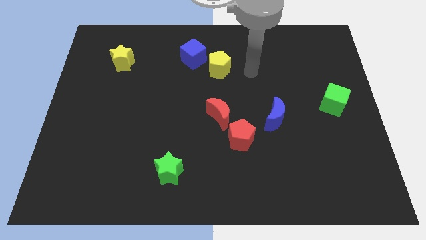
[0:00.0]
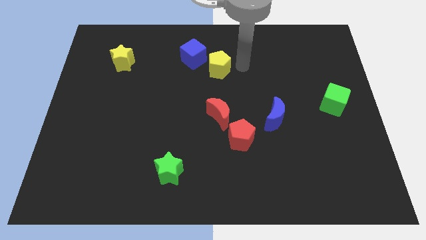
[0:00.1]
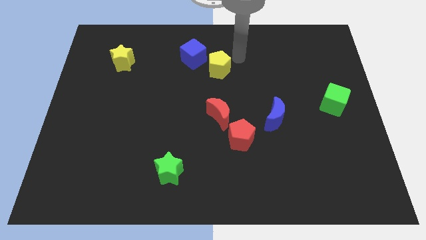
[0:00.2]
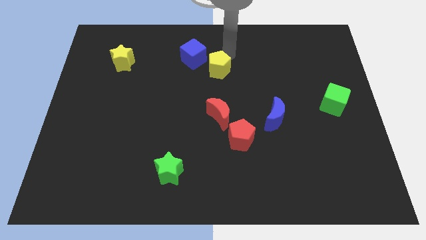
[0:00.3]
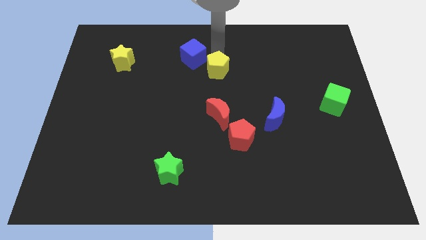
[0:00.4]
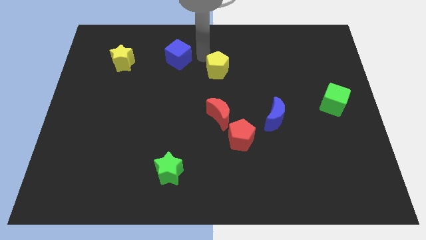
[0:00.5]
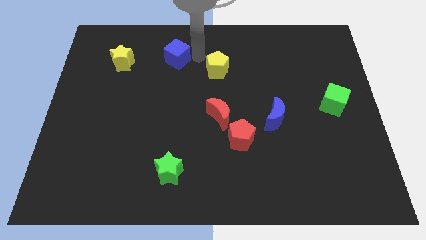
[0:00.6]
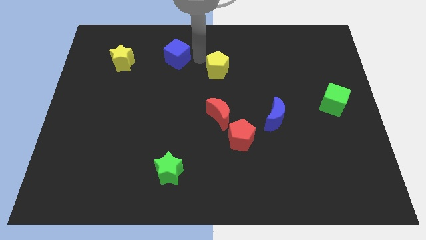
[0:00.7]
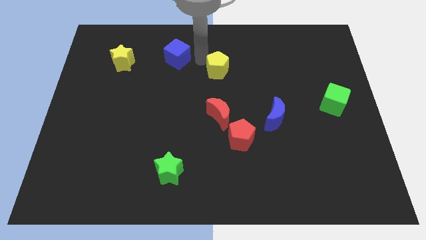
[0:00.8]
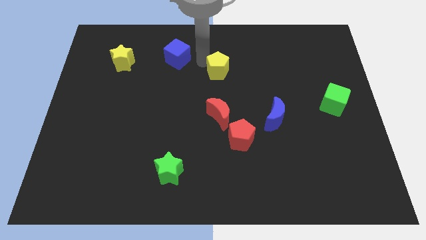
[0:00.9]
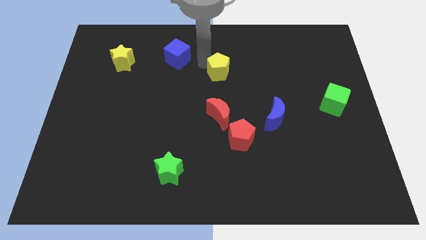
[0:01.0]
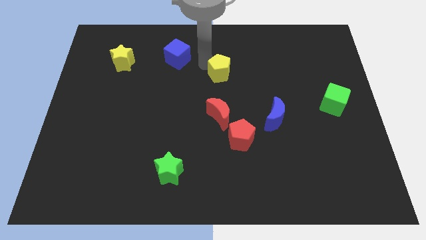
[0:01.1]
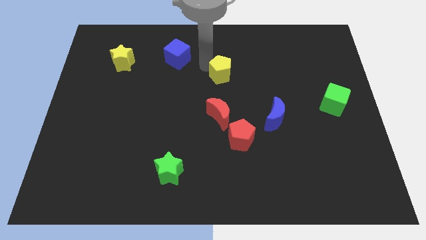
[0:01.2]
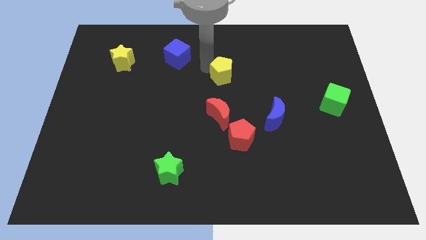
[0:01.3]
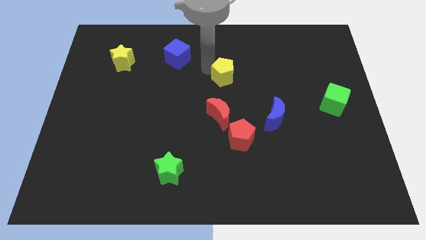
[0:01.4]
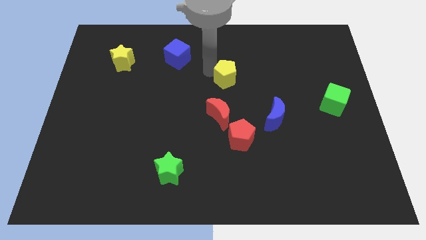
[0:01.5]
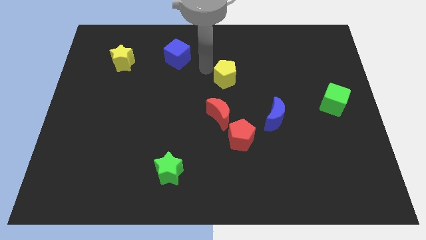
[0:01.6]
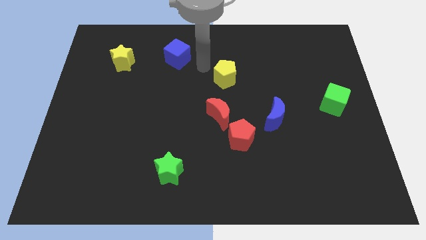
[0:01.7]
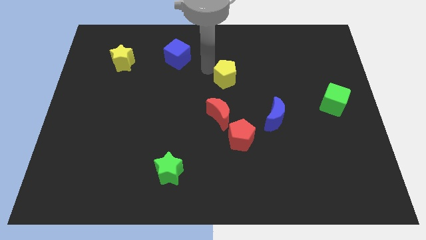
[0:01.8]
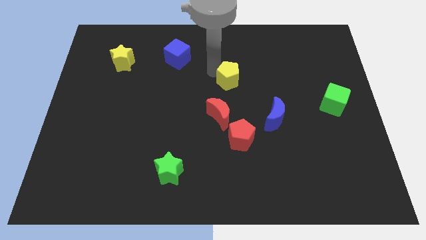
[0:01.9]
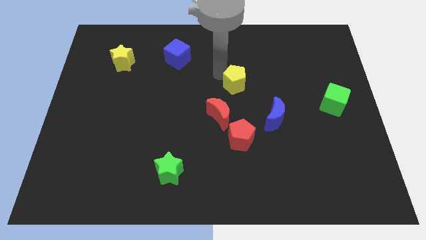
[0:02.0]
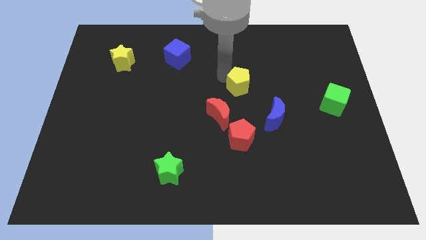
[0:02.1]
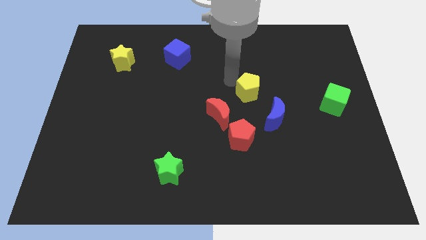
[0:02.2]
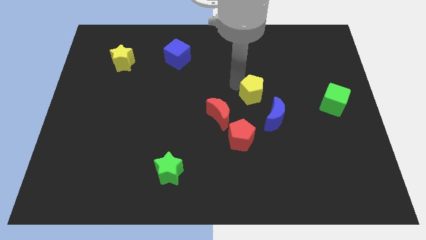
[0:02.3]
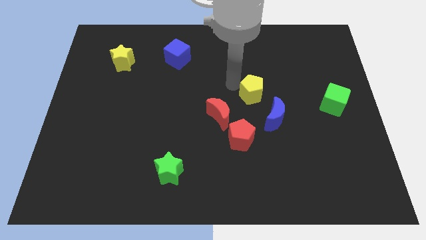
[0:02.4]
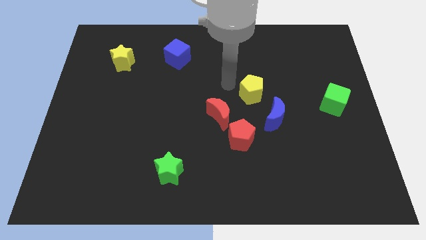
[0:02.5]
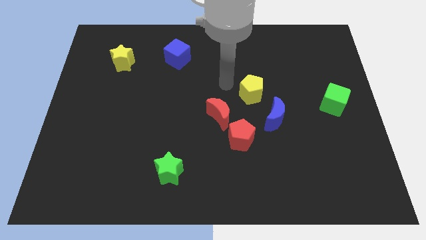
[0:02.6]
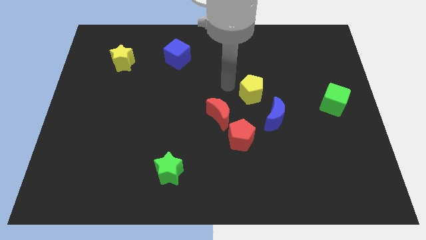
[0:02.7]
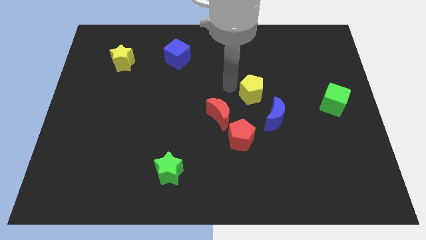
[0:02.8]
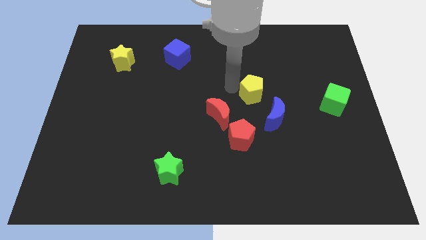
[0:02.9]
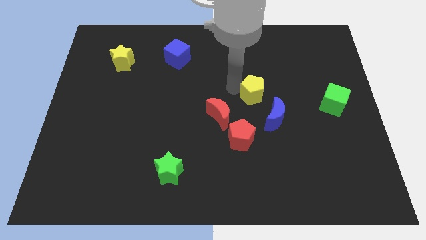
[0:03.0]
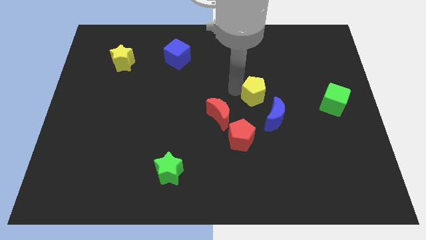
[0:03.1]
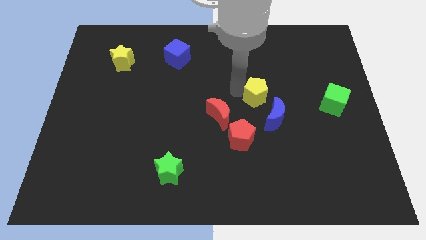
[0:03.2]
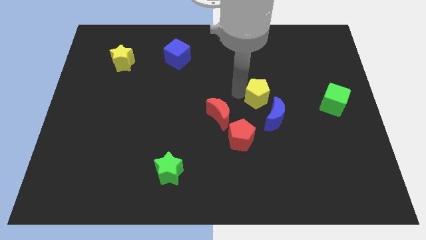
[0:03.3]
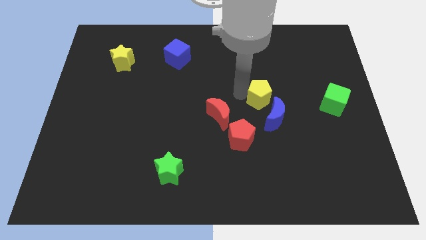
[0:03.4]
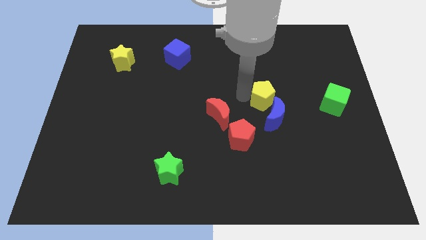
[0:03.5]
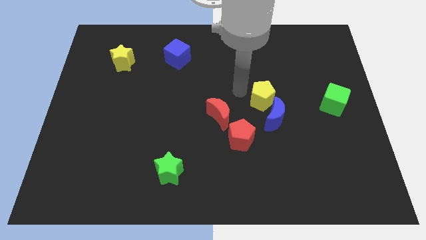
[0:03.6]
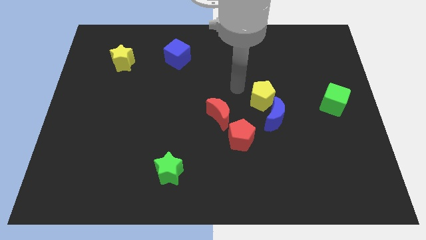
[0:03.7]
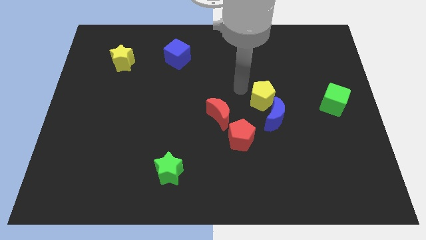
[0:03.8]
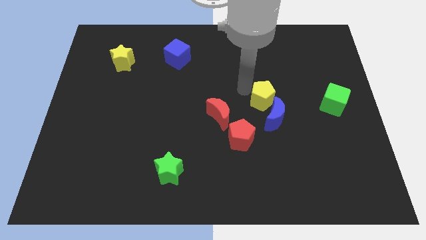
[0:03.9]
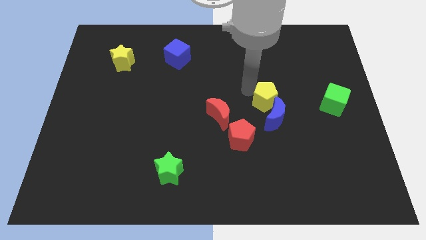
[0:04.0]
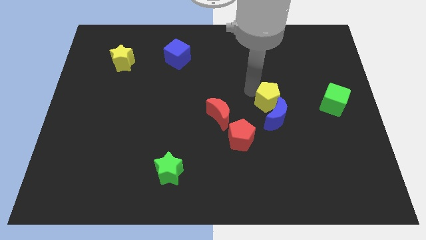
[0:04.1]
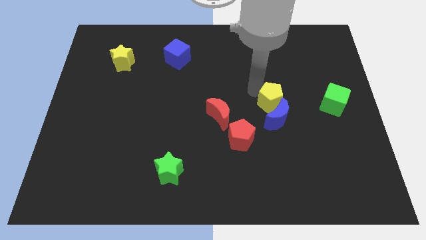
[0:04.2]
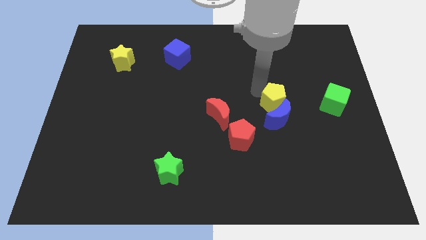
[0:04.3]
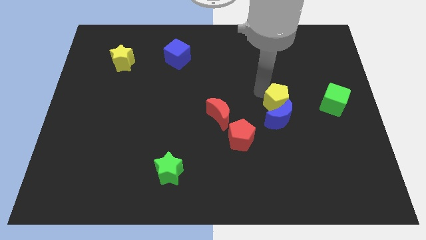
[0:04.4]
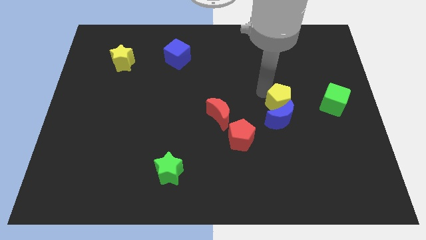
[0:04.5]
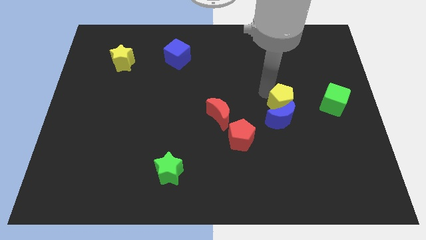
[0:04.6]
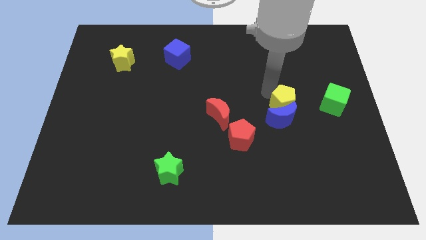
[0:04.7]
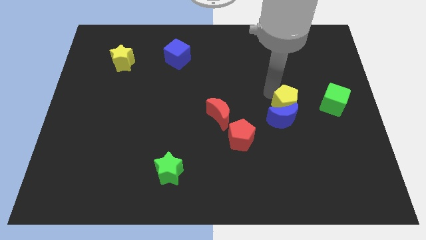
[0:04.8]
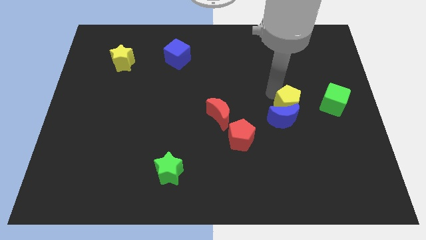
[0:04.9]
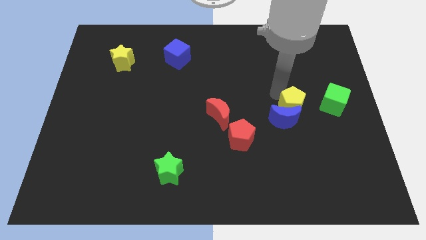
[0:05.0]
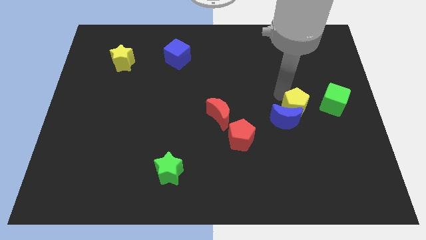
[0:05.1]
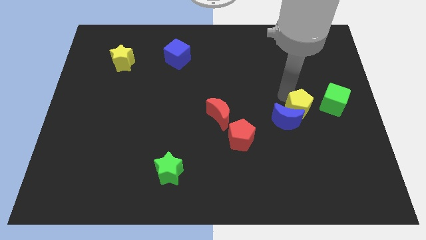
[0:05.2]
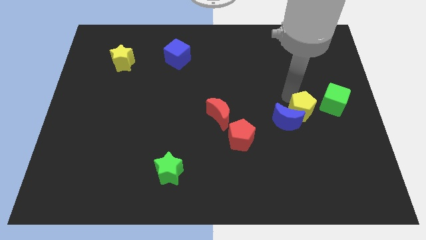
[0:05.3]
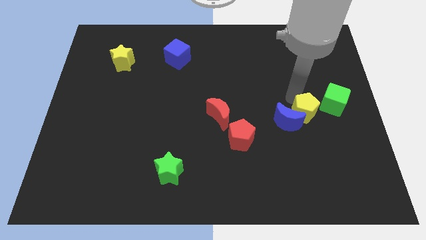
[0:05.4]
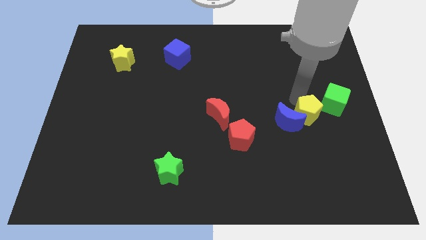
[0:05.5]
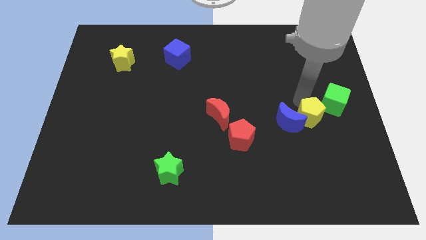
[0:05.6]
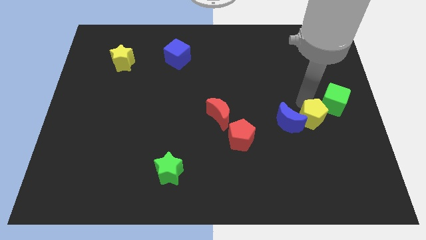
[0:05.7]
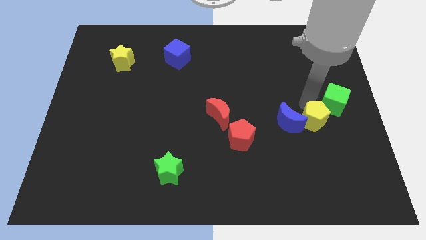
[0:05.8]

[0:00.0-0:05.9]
slide the yellow pentagon diagonally down and to the right of the blue moon
